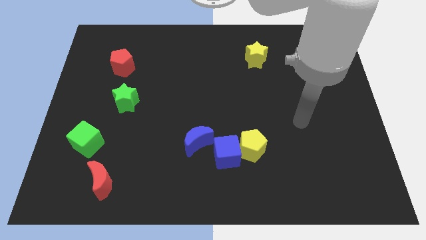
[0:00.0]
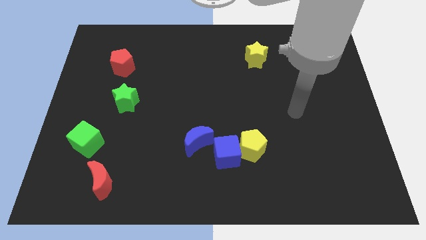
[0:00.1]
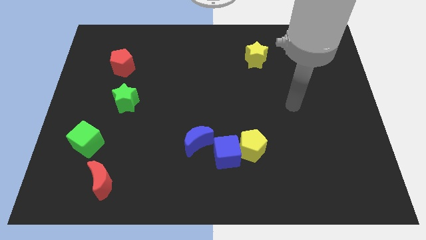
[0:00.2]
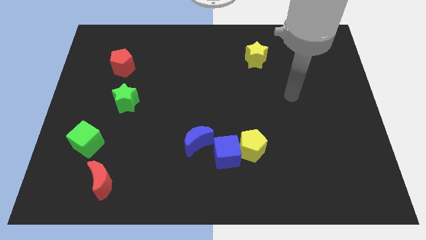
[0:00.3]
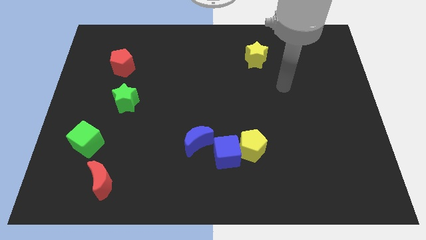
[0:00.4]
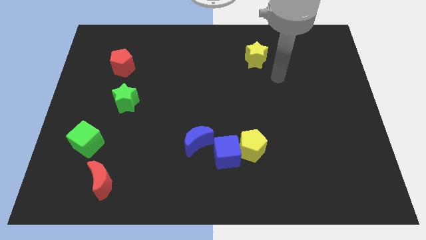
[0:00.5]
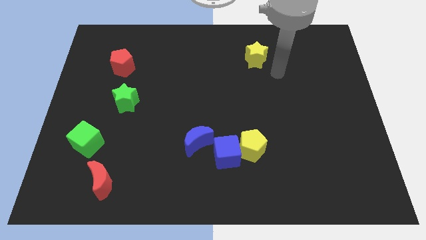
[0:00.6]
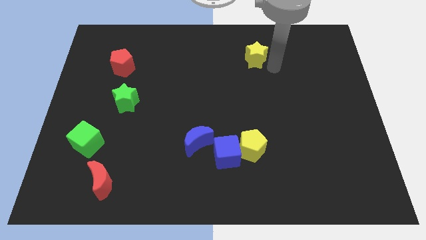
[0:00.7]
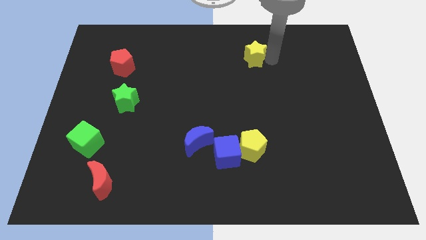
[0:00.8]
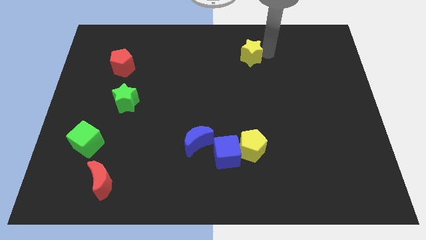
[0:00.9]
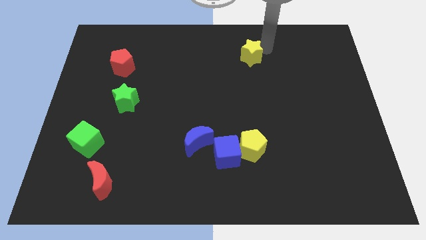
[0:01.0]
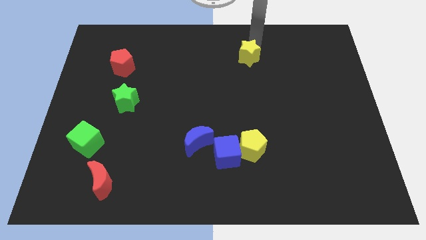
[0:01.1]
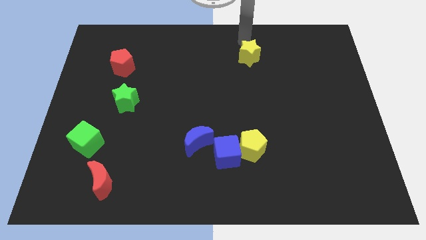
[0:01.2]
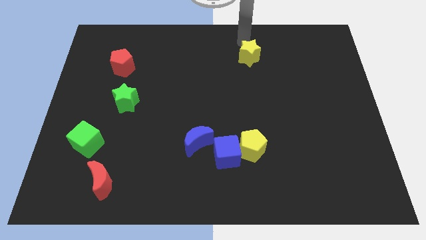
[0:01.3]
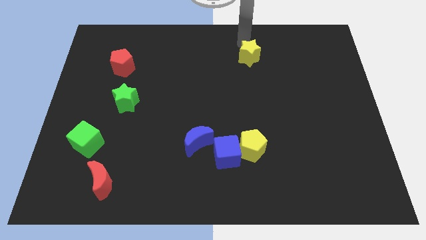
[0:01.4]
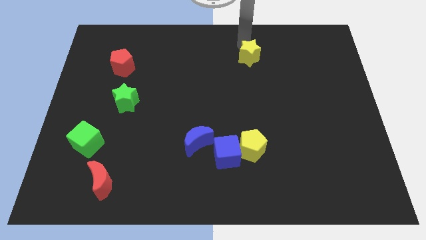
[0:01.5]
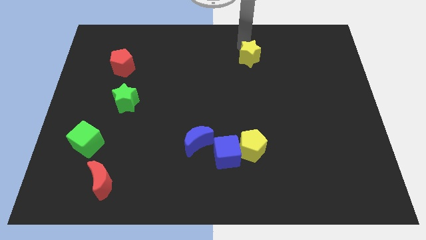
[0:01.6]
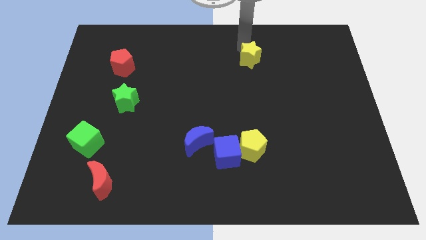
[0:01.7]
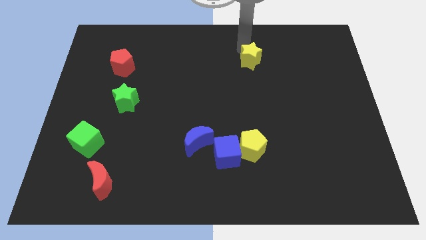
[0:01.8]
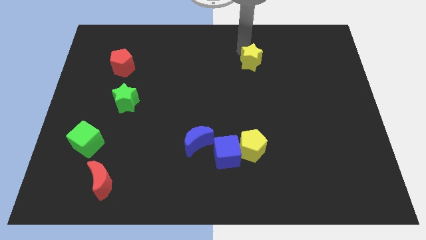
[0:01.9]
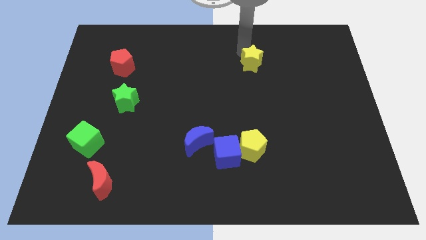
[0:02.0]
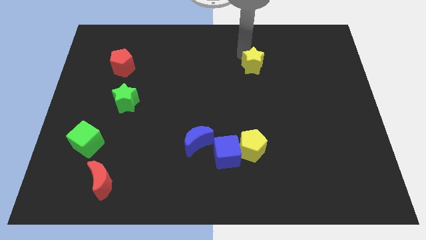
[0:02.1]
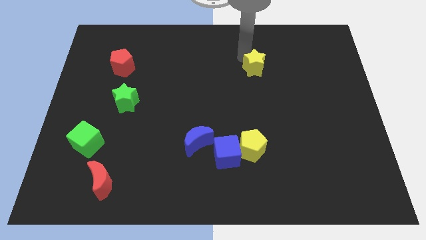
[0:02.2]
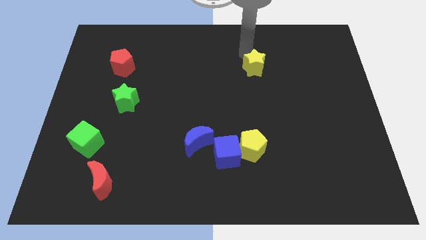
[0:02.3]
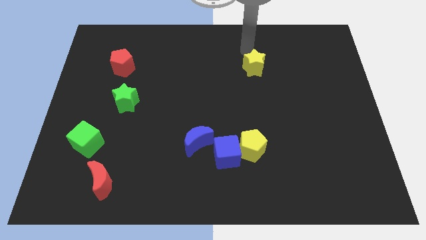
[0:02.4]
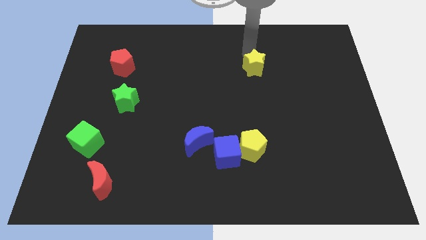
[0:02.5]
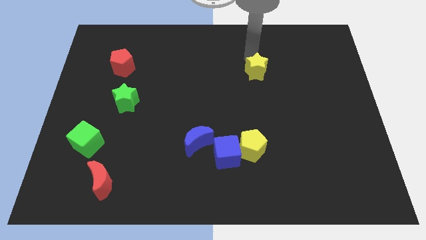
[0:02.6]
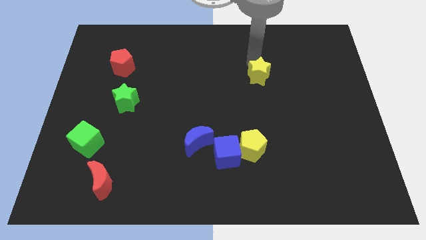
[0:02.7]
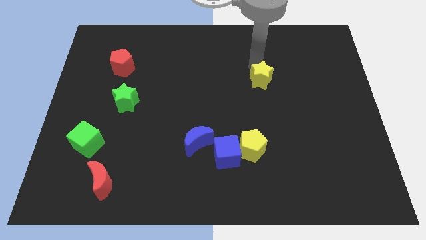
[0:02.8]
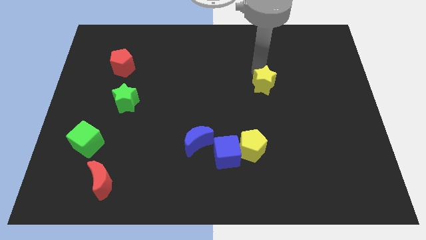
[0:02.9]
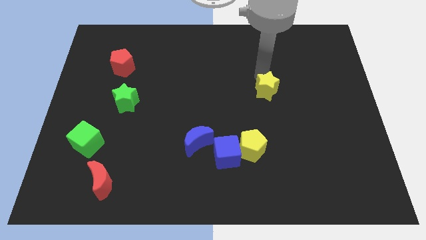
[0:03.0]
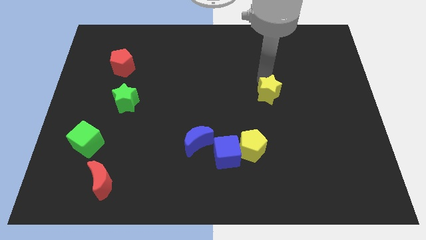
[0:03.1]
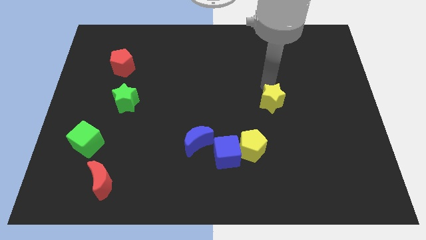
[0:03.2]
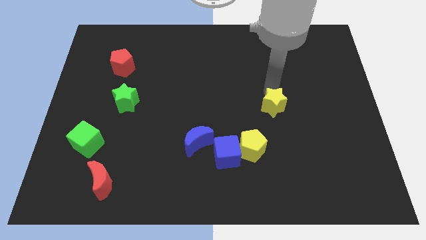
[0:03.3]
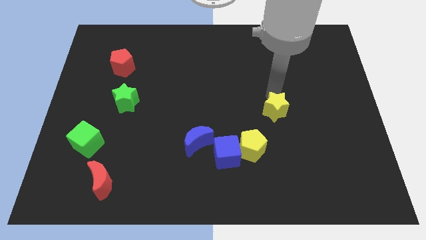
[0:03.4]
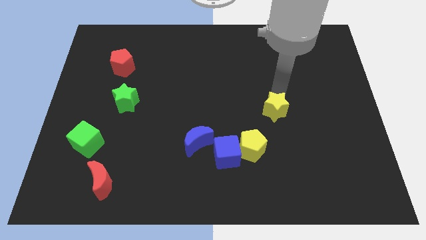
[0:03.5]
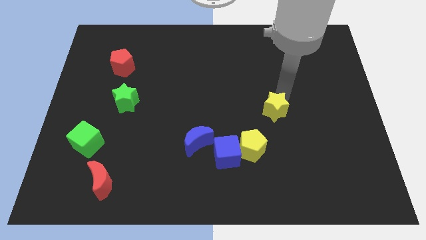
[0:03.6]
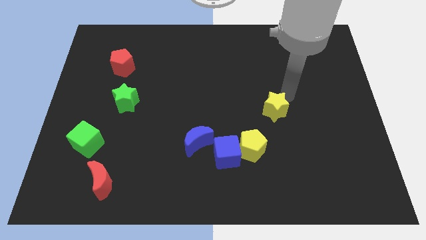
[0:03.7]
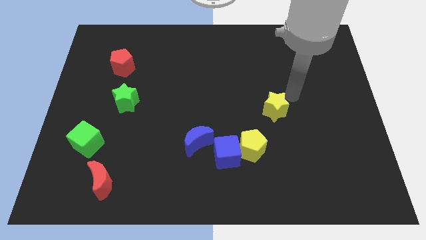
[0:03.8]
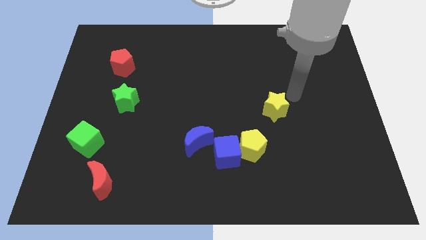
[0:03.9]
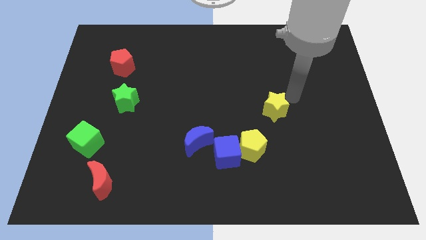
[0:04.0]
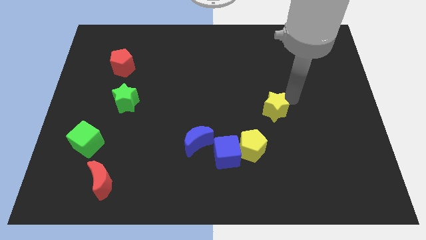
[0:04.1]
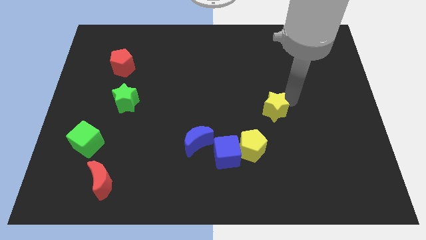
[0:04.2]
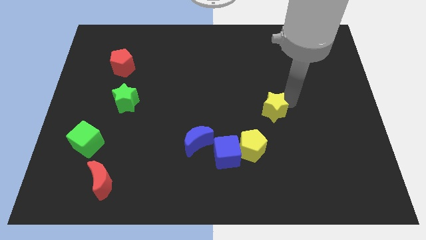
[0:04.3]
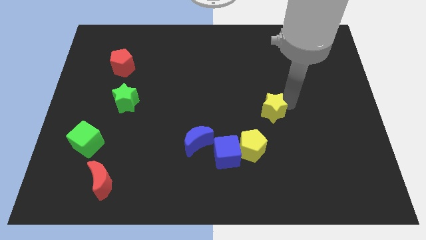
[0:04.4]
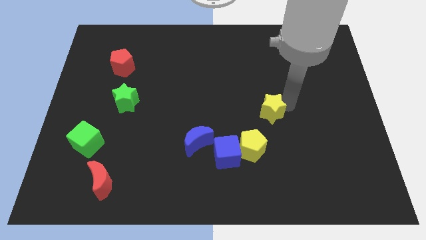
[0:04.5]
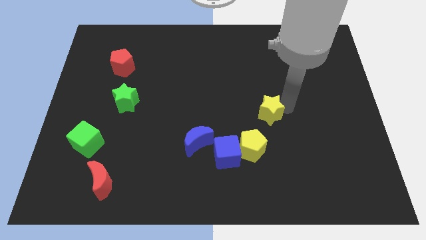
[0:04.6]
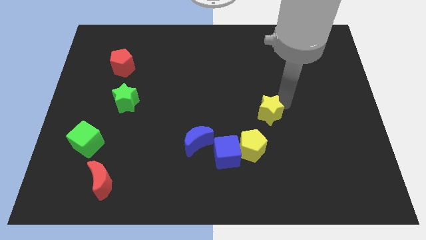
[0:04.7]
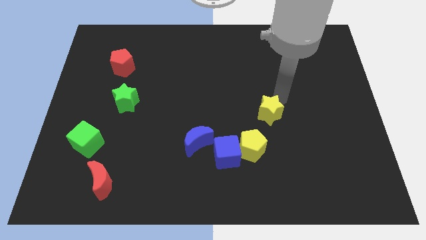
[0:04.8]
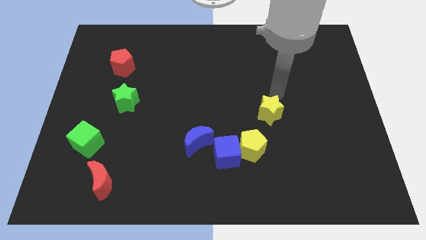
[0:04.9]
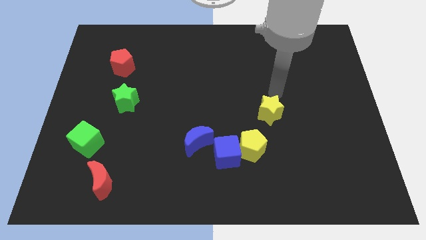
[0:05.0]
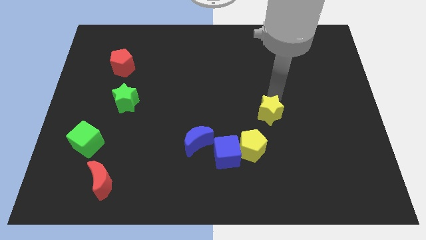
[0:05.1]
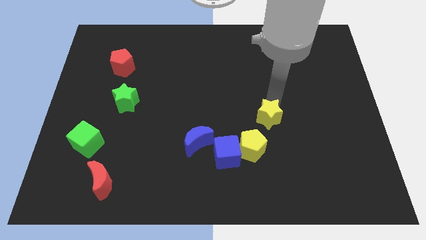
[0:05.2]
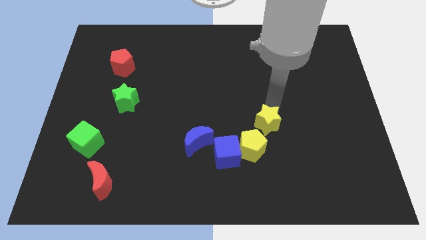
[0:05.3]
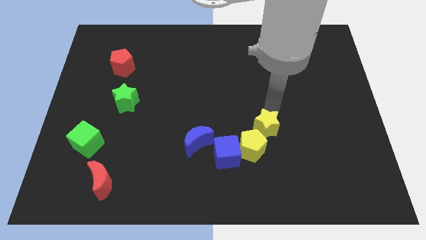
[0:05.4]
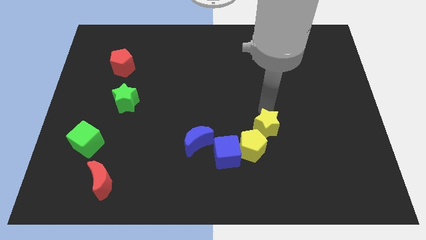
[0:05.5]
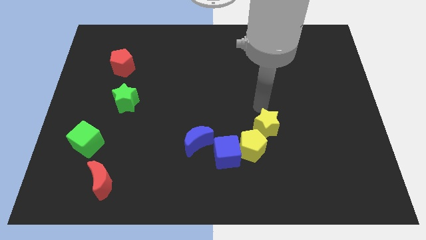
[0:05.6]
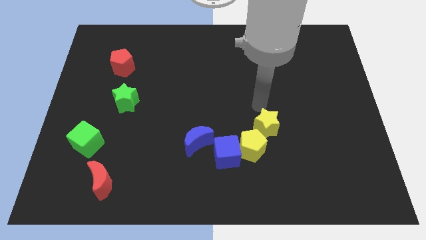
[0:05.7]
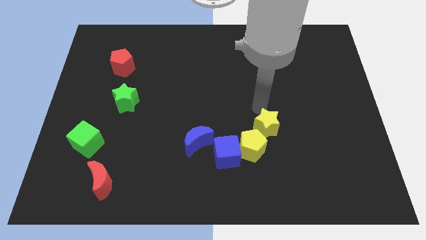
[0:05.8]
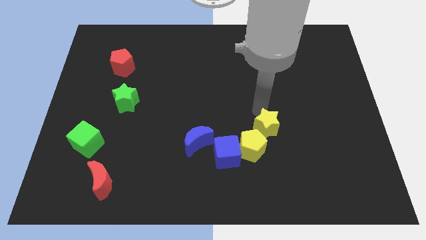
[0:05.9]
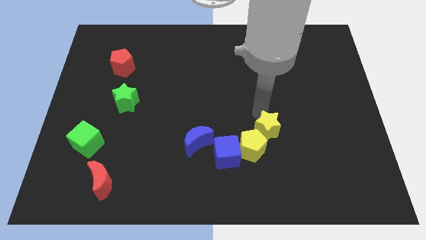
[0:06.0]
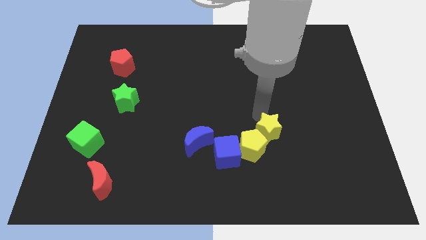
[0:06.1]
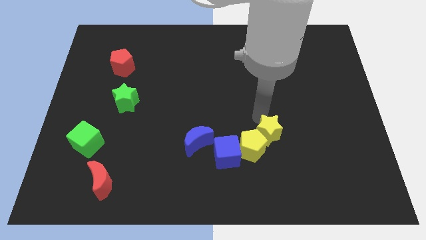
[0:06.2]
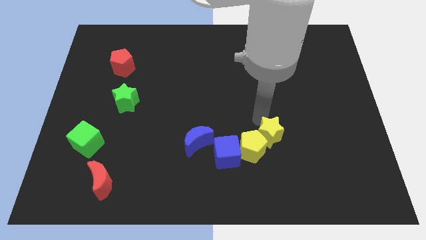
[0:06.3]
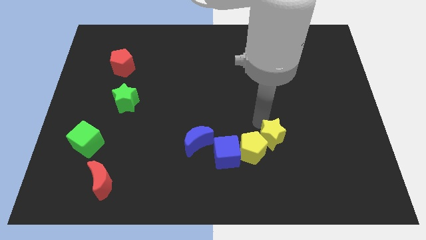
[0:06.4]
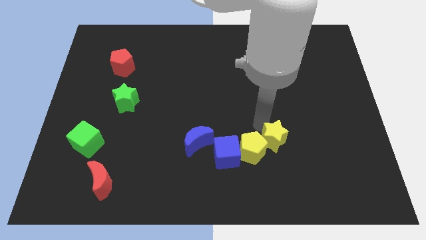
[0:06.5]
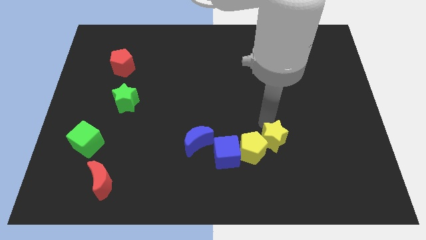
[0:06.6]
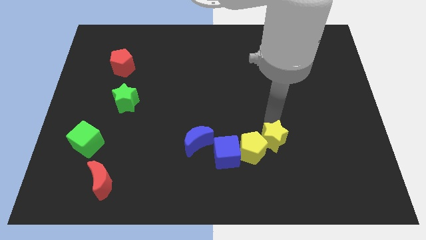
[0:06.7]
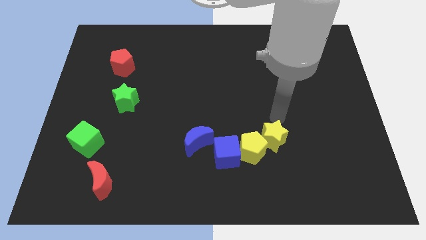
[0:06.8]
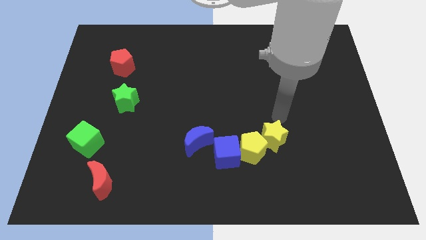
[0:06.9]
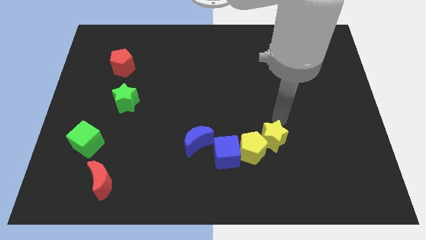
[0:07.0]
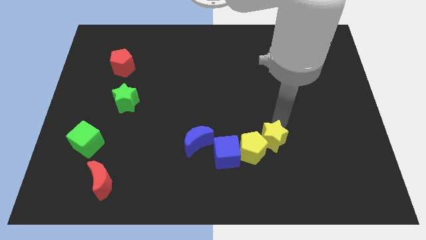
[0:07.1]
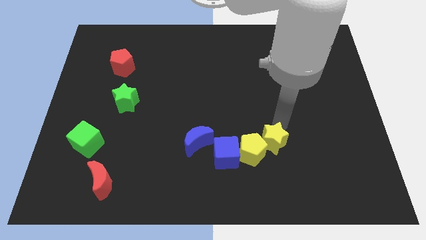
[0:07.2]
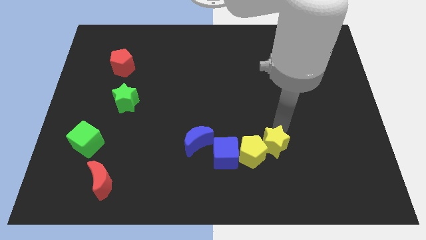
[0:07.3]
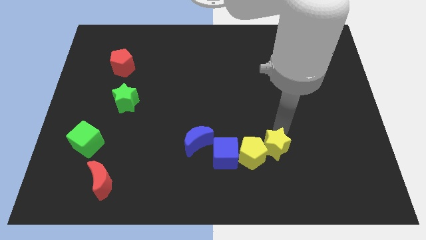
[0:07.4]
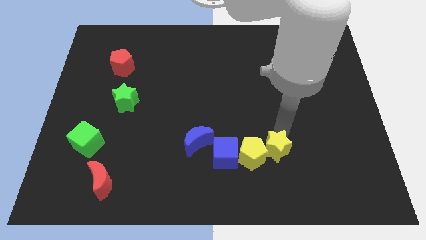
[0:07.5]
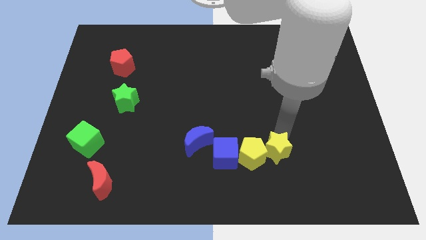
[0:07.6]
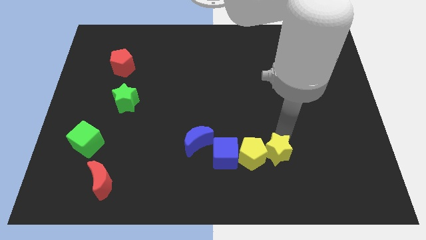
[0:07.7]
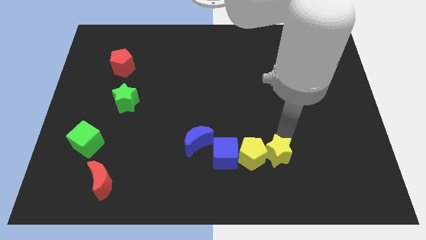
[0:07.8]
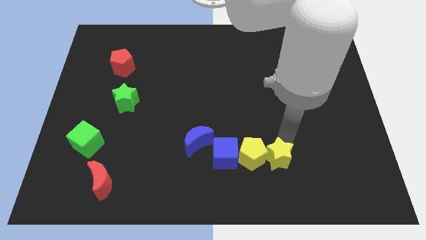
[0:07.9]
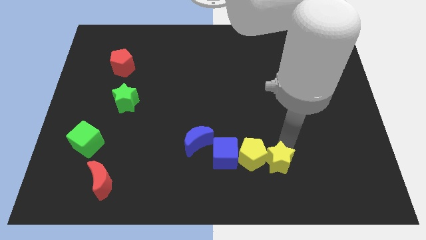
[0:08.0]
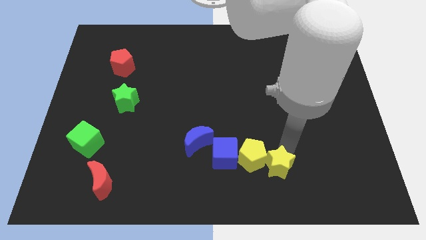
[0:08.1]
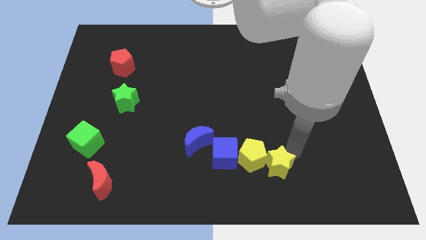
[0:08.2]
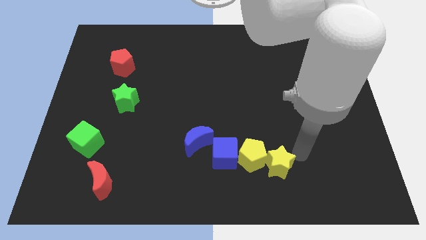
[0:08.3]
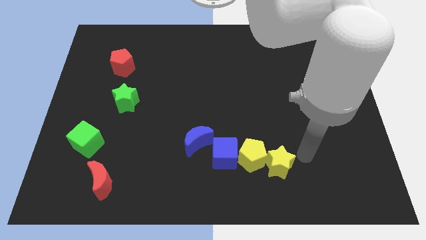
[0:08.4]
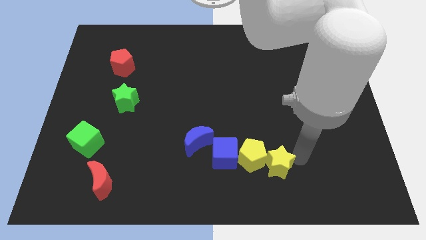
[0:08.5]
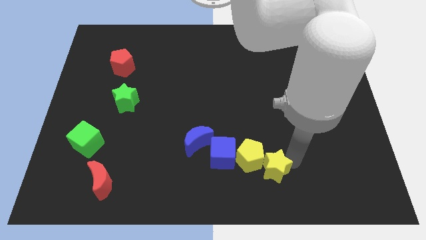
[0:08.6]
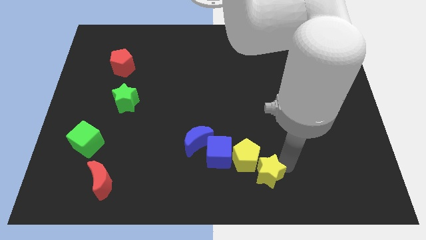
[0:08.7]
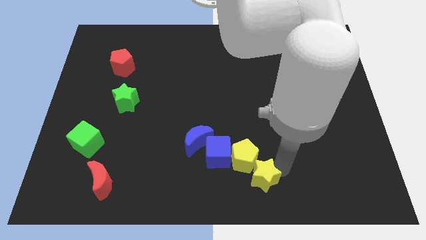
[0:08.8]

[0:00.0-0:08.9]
slide the yellow star to the bottom side
